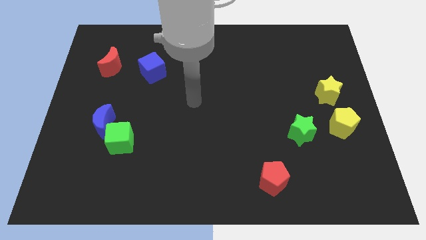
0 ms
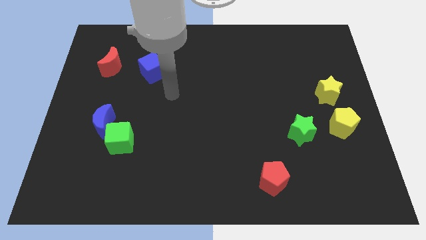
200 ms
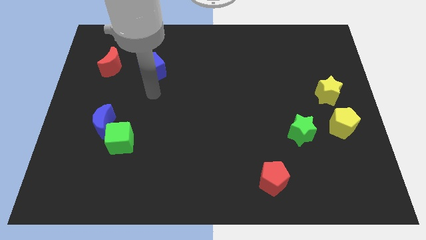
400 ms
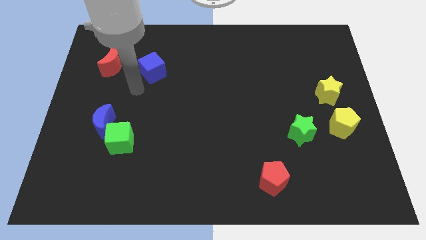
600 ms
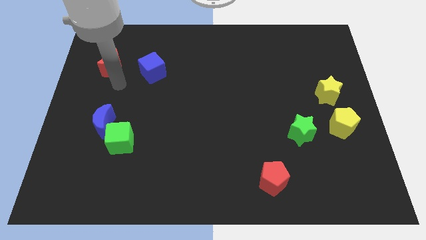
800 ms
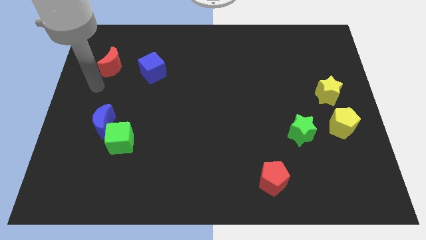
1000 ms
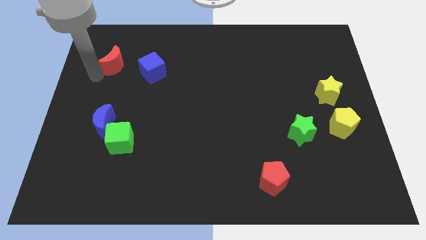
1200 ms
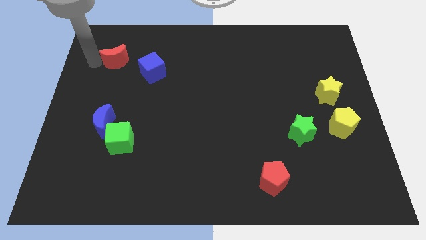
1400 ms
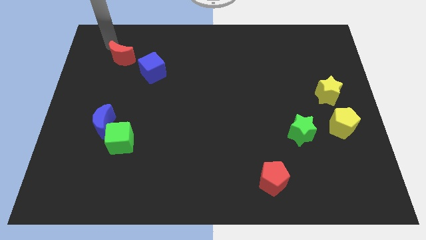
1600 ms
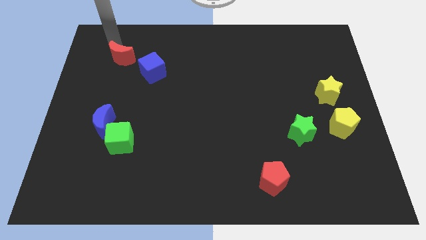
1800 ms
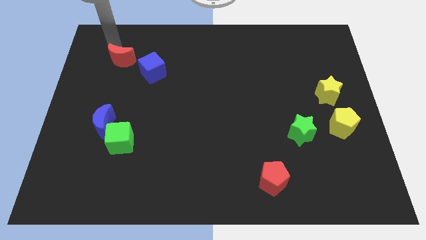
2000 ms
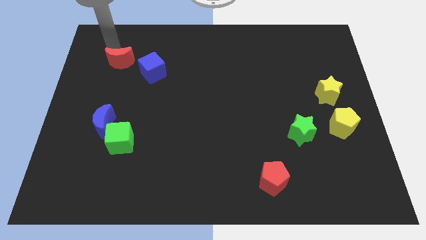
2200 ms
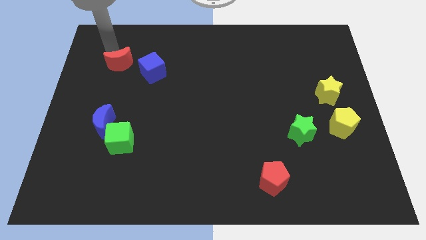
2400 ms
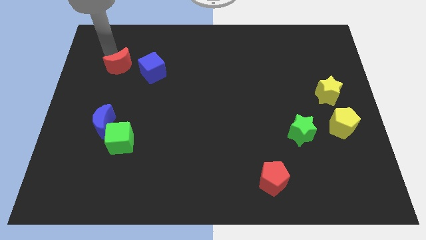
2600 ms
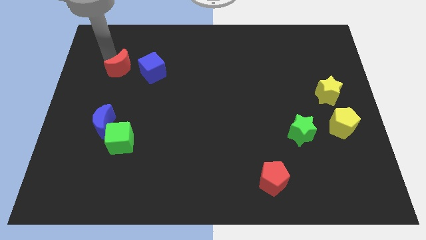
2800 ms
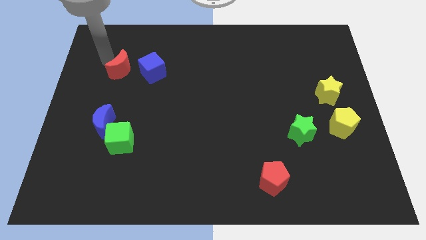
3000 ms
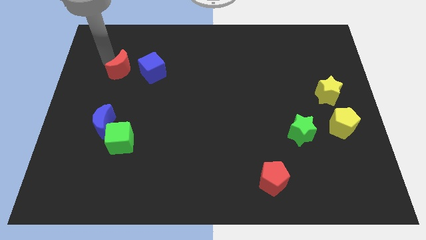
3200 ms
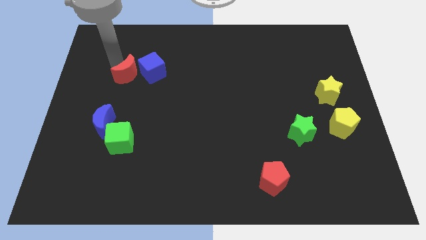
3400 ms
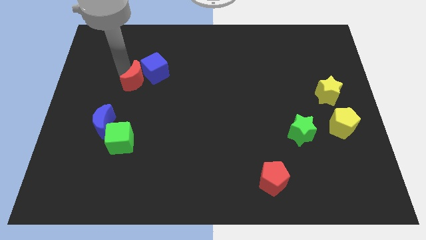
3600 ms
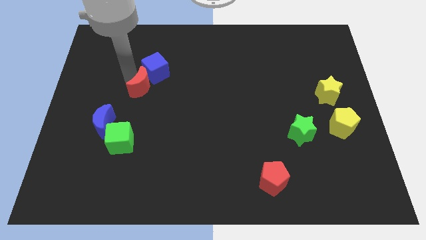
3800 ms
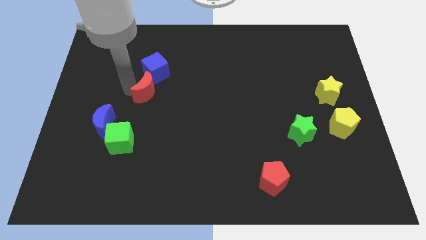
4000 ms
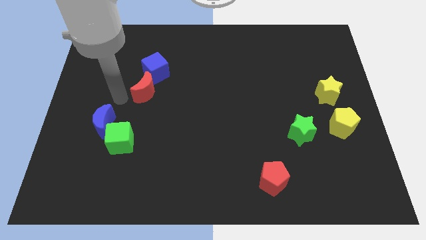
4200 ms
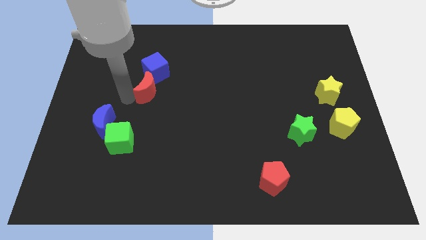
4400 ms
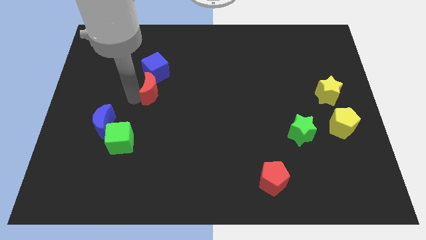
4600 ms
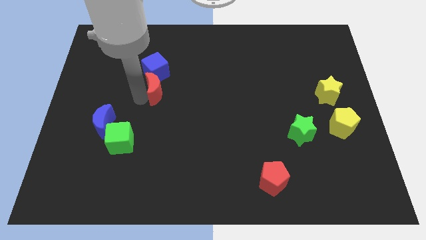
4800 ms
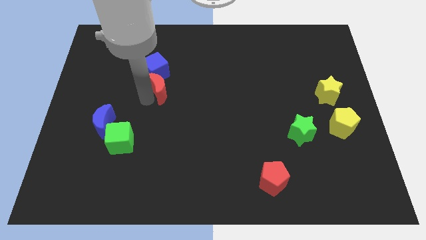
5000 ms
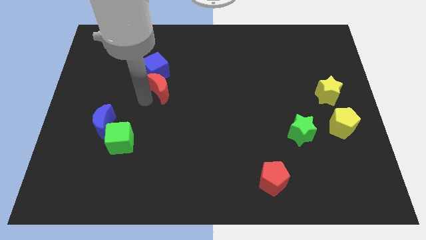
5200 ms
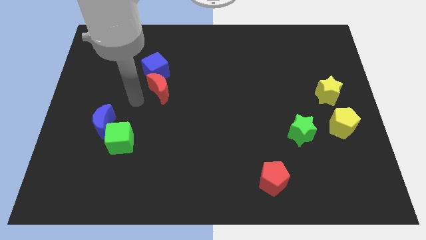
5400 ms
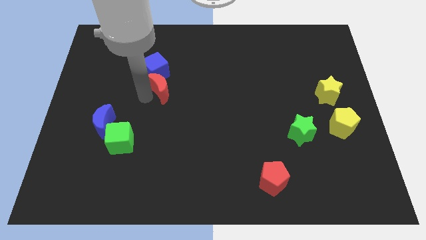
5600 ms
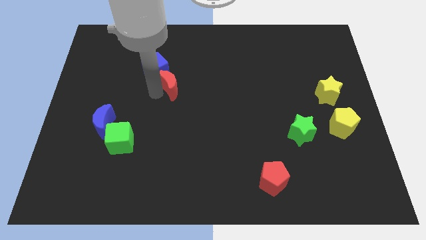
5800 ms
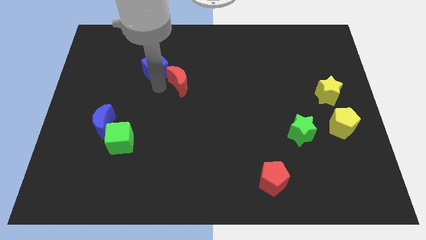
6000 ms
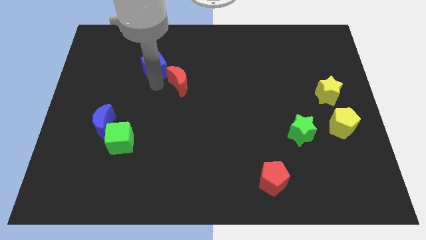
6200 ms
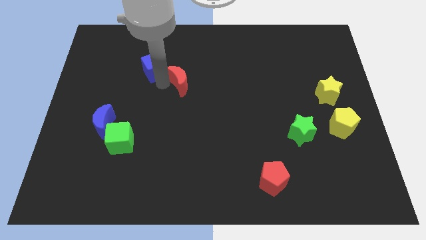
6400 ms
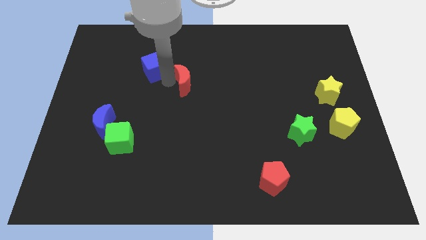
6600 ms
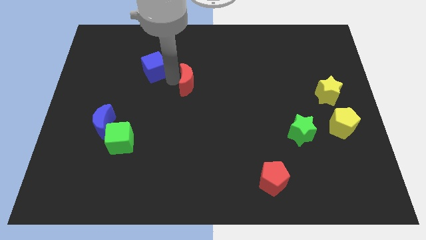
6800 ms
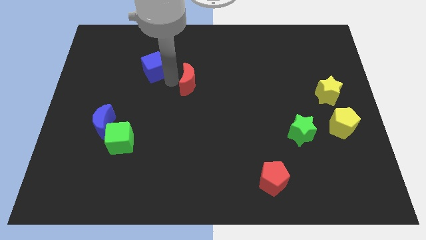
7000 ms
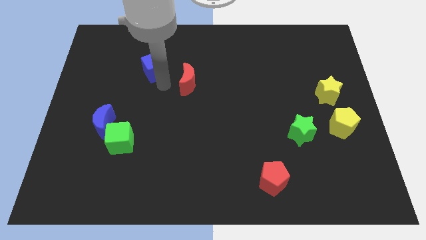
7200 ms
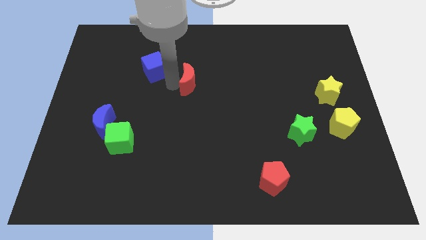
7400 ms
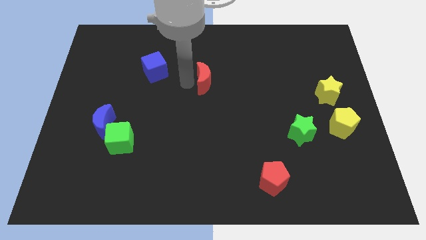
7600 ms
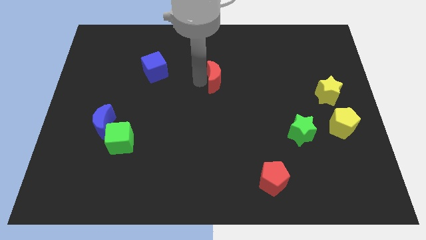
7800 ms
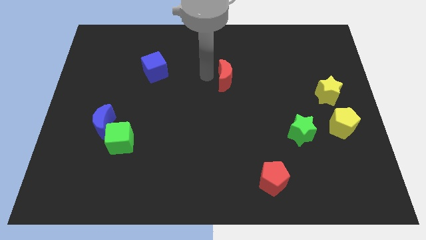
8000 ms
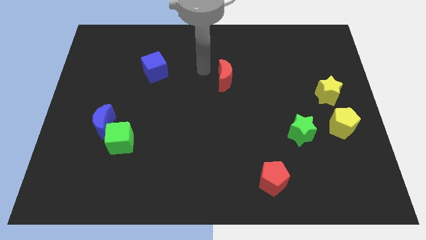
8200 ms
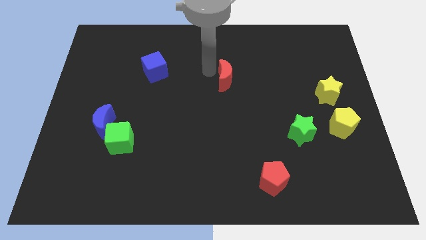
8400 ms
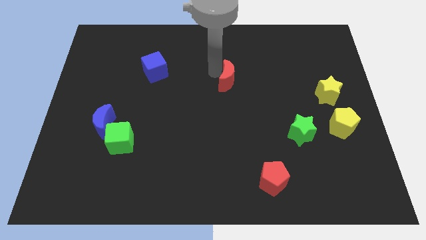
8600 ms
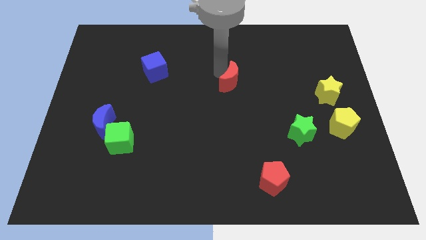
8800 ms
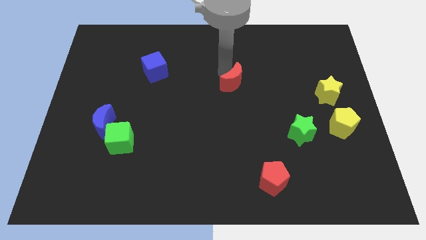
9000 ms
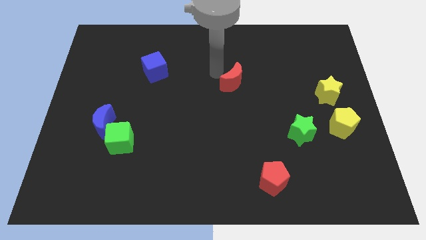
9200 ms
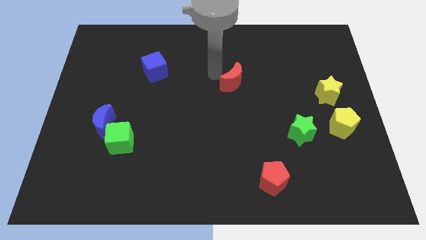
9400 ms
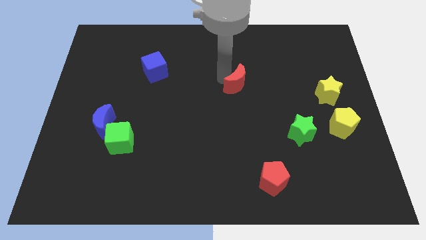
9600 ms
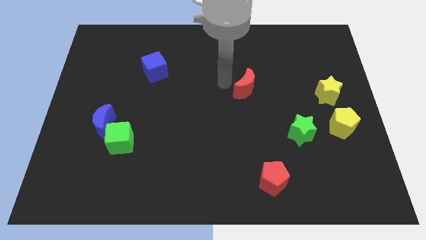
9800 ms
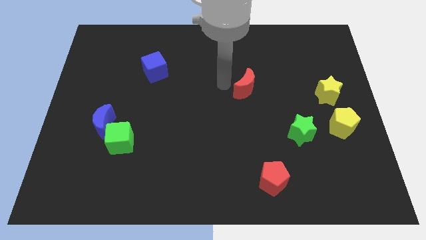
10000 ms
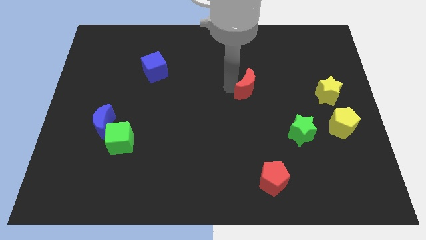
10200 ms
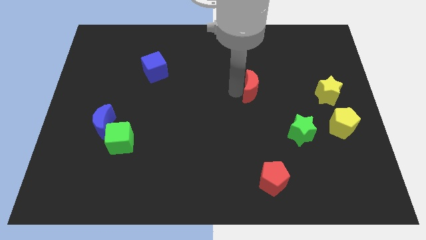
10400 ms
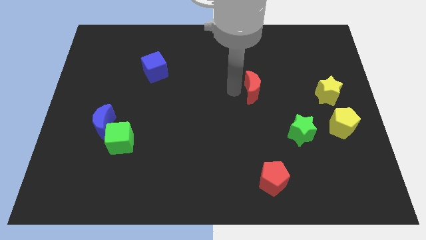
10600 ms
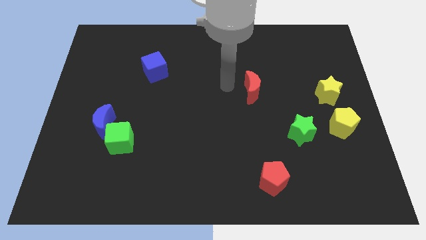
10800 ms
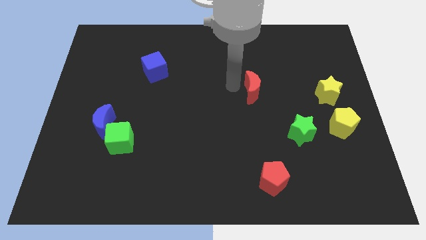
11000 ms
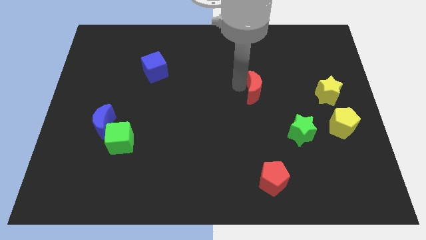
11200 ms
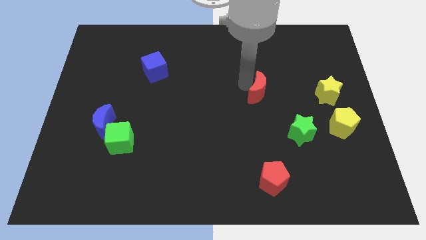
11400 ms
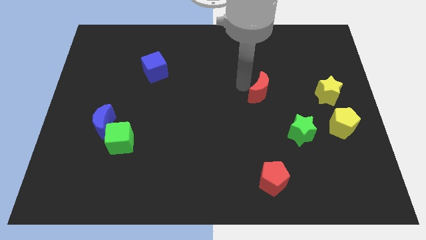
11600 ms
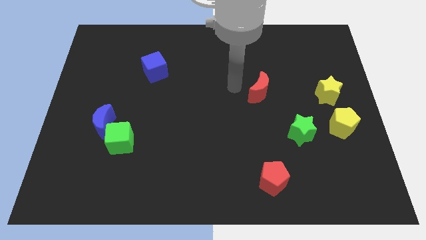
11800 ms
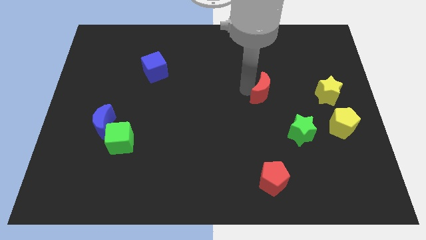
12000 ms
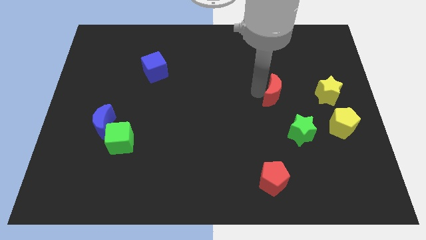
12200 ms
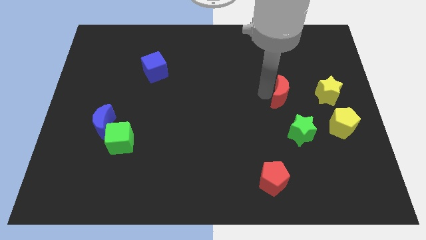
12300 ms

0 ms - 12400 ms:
put the red moon to the top of the green star

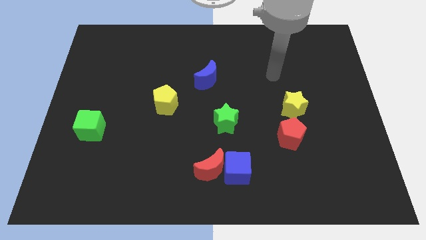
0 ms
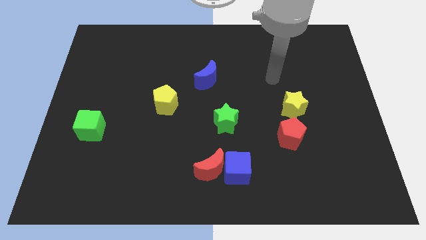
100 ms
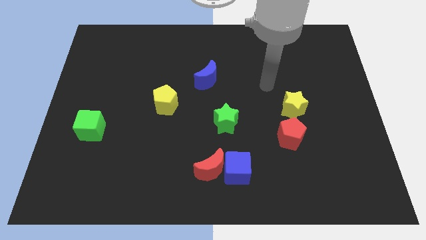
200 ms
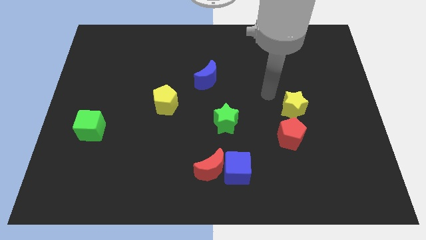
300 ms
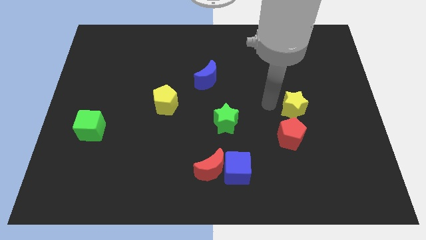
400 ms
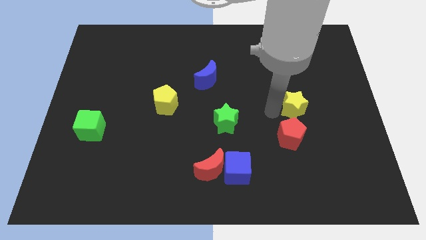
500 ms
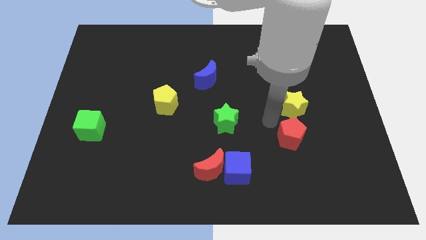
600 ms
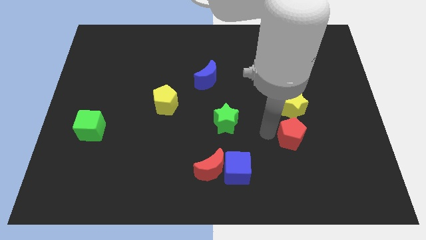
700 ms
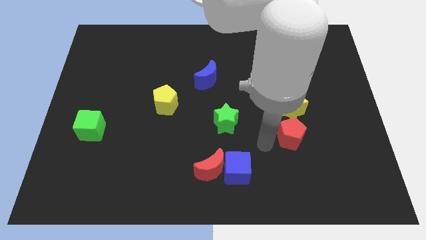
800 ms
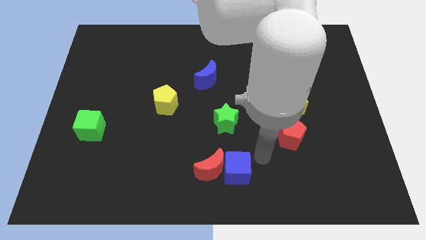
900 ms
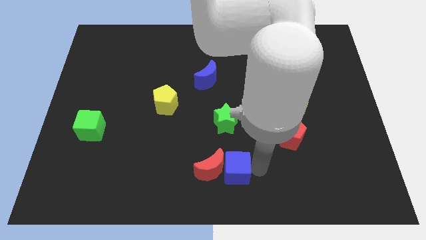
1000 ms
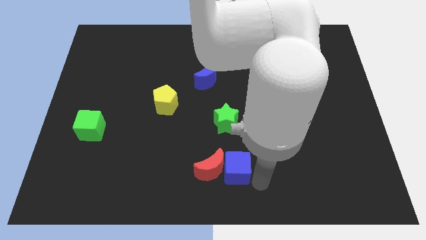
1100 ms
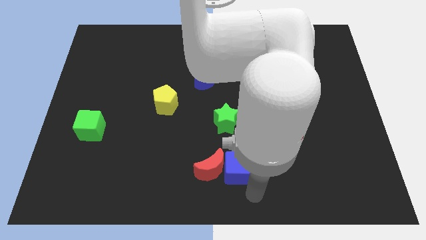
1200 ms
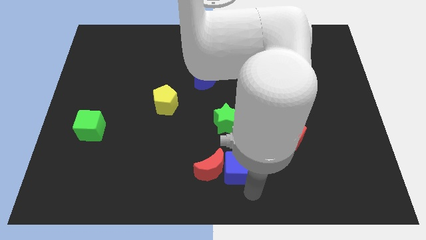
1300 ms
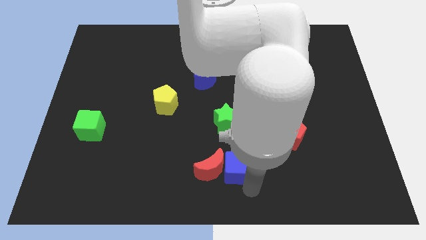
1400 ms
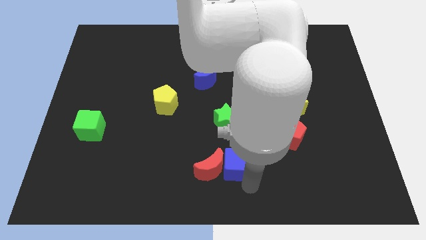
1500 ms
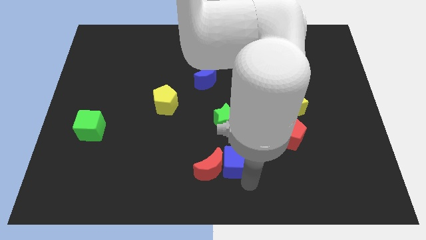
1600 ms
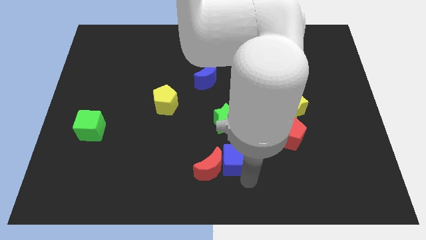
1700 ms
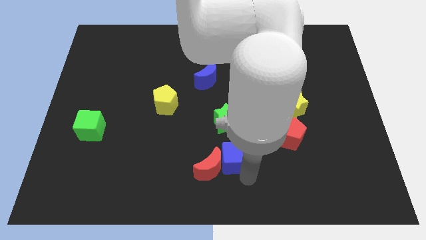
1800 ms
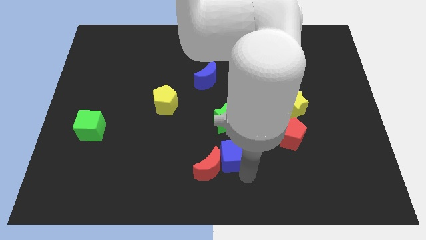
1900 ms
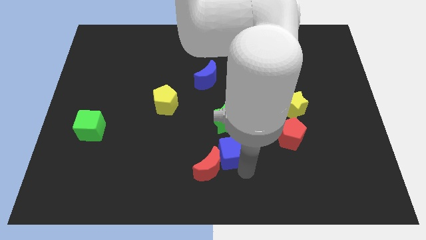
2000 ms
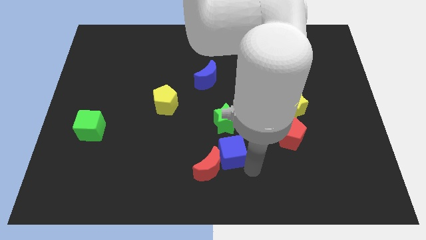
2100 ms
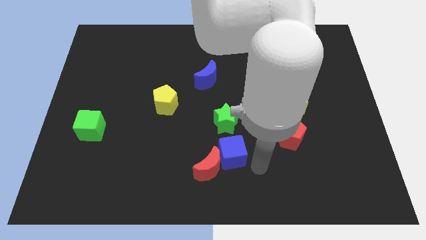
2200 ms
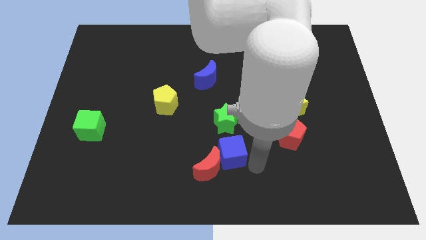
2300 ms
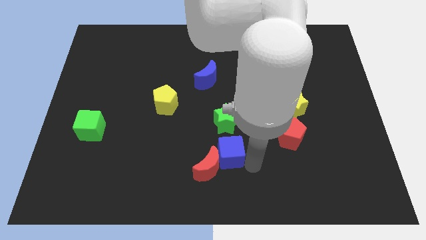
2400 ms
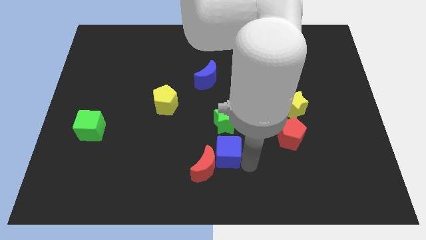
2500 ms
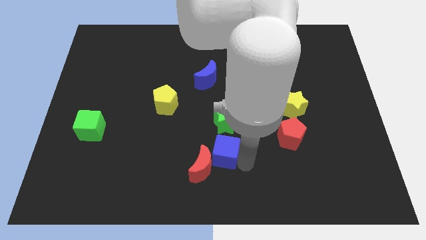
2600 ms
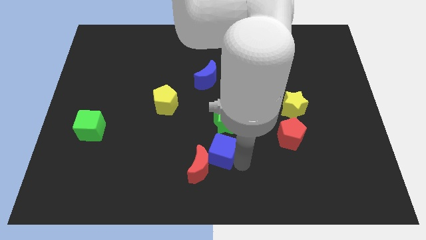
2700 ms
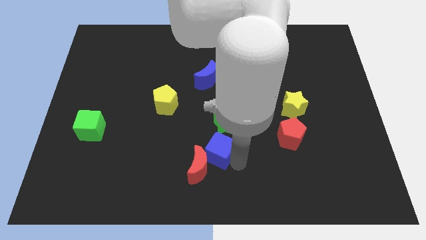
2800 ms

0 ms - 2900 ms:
slide the blue cube to the bottom left of the green star
